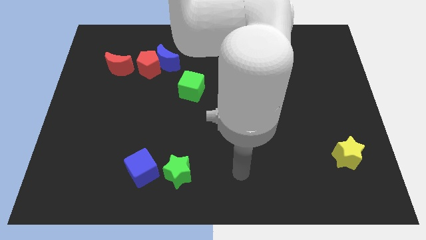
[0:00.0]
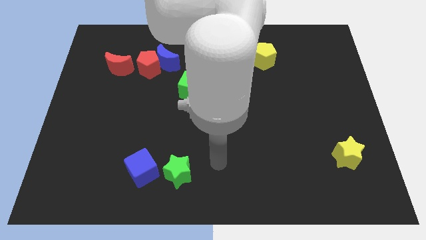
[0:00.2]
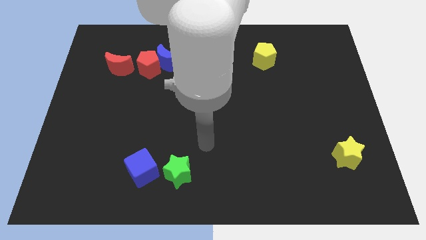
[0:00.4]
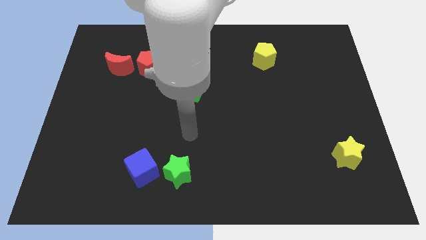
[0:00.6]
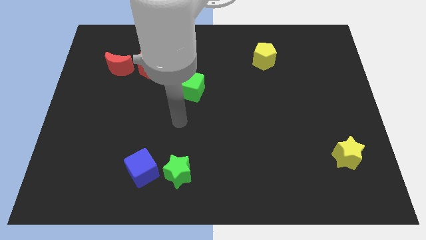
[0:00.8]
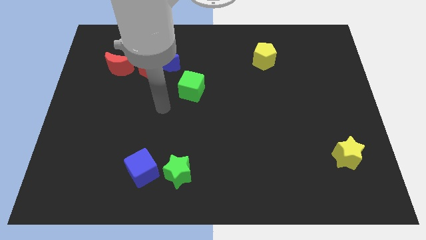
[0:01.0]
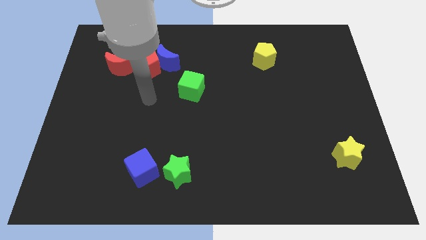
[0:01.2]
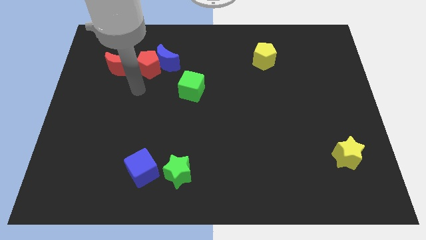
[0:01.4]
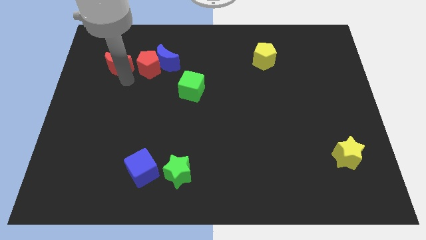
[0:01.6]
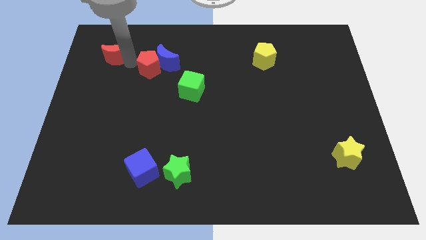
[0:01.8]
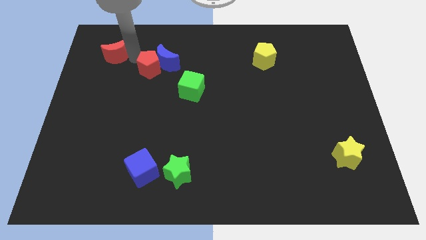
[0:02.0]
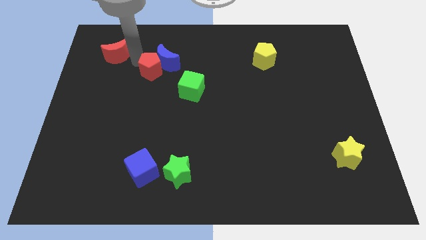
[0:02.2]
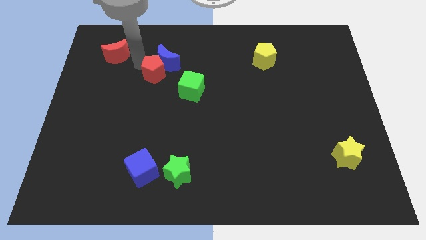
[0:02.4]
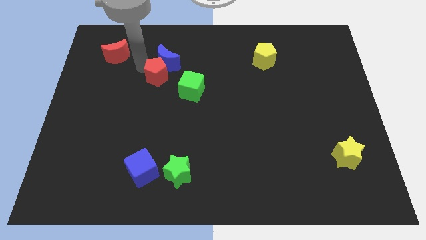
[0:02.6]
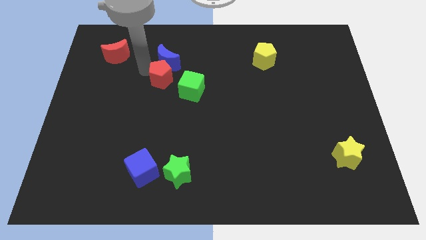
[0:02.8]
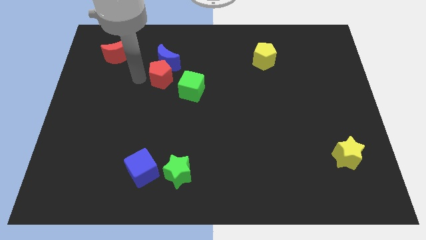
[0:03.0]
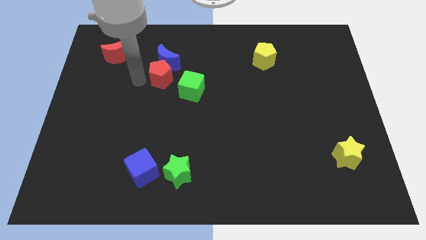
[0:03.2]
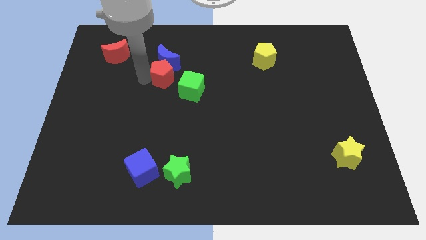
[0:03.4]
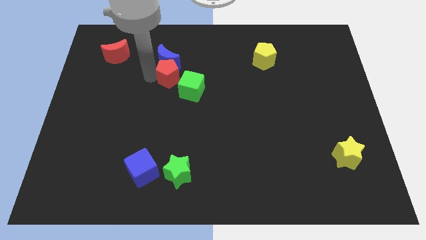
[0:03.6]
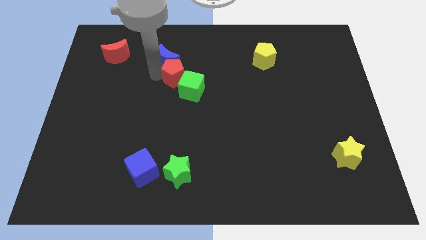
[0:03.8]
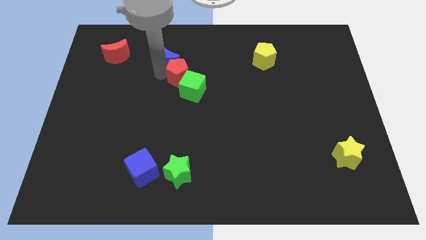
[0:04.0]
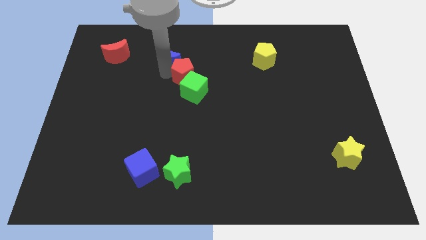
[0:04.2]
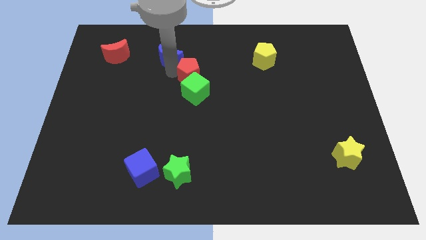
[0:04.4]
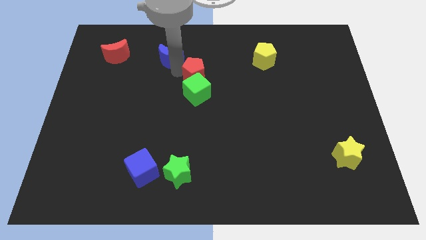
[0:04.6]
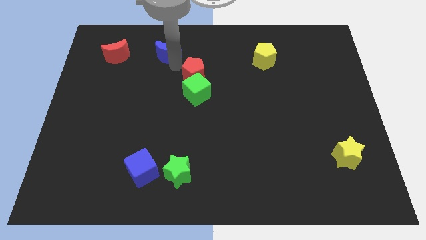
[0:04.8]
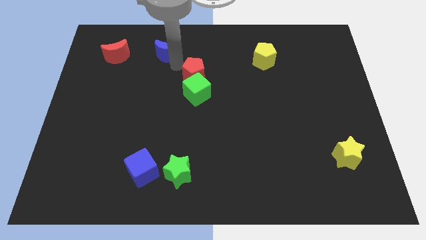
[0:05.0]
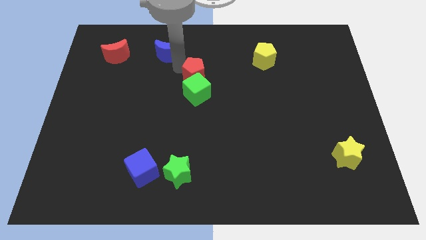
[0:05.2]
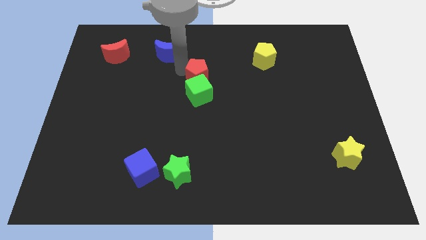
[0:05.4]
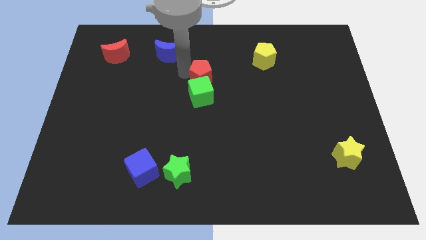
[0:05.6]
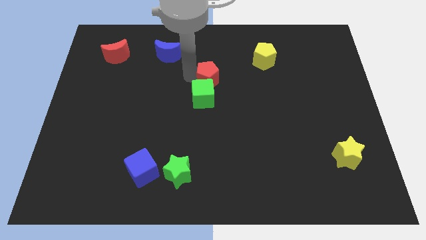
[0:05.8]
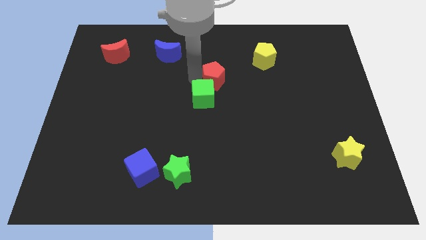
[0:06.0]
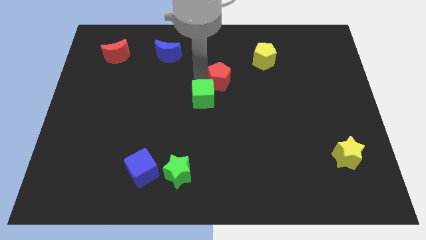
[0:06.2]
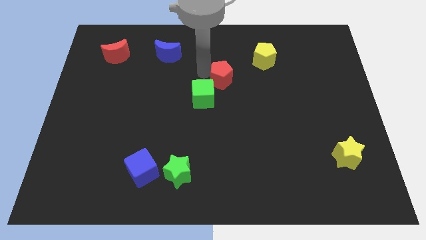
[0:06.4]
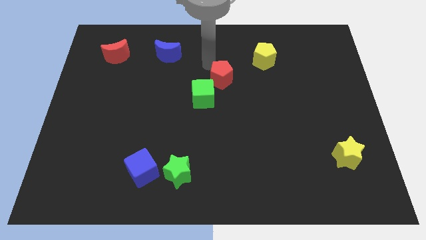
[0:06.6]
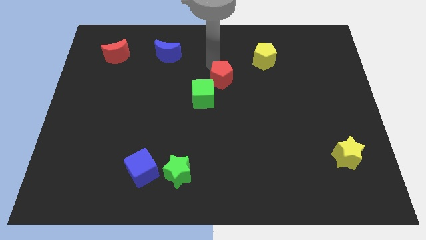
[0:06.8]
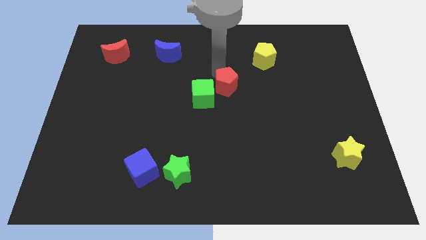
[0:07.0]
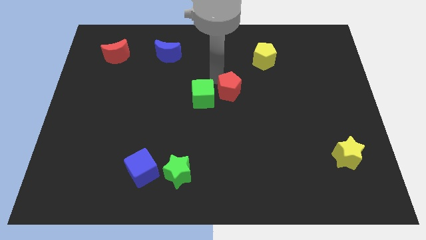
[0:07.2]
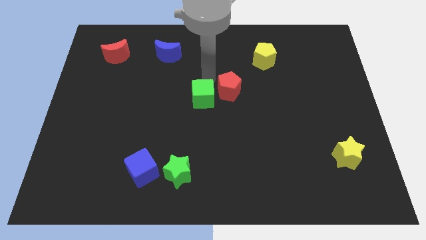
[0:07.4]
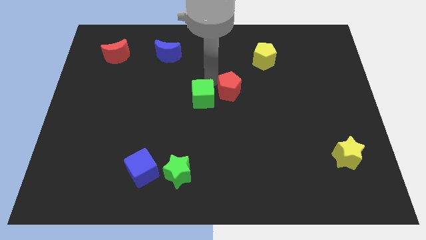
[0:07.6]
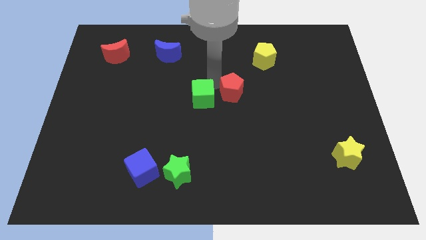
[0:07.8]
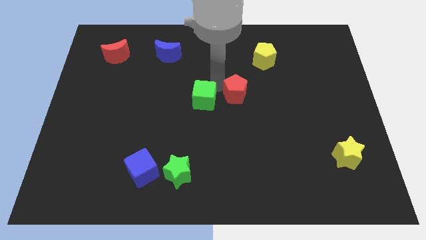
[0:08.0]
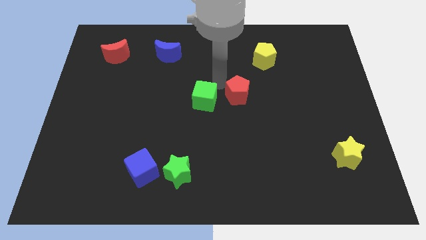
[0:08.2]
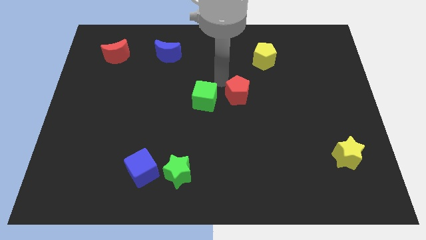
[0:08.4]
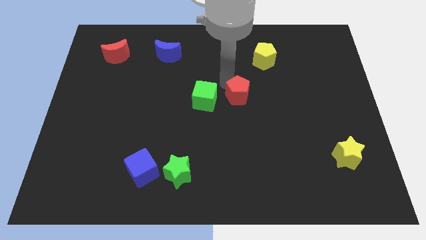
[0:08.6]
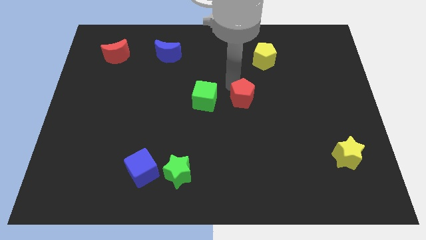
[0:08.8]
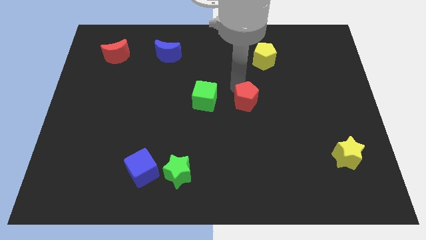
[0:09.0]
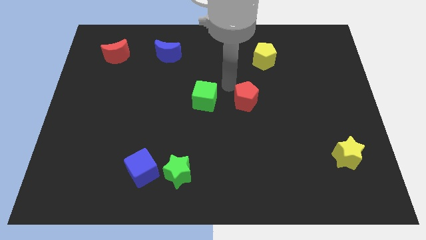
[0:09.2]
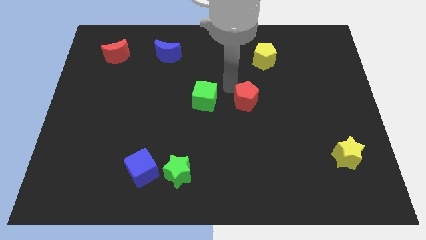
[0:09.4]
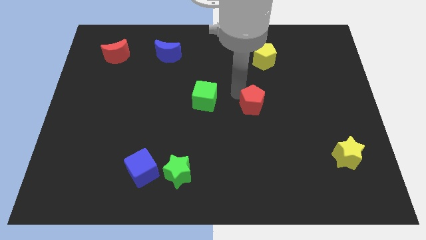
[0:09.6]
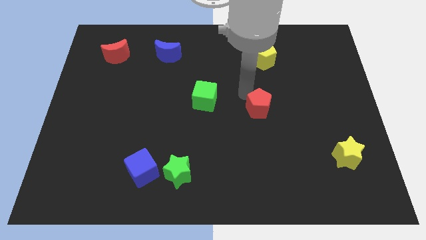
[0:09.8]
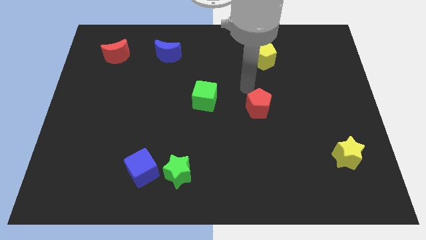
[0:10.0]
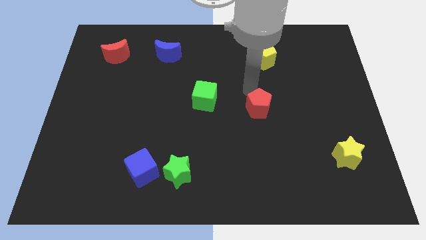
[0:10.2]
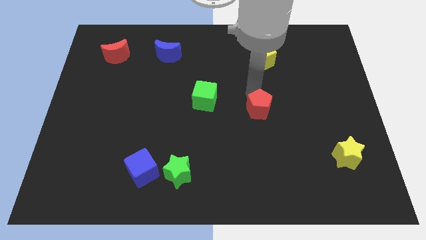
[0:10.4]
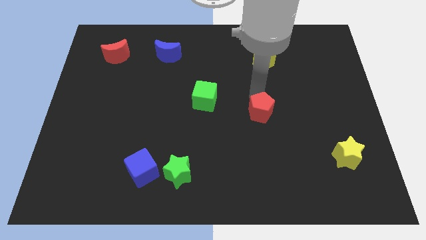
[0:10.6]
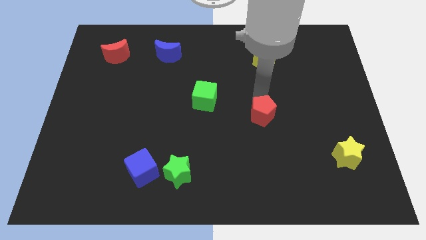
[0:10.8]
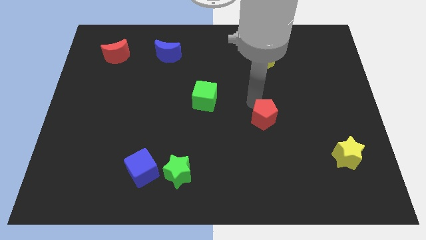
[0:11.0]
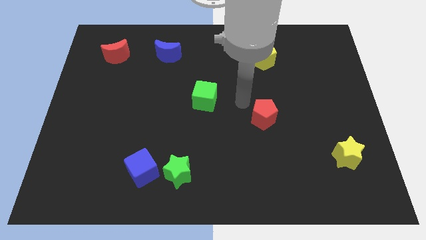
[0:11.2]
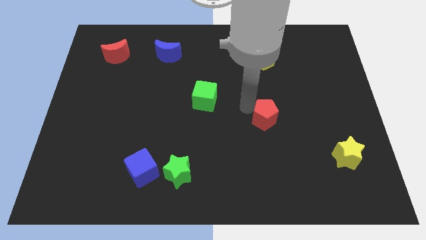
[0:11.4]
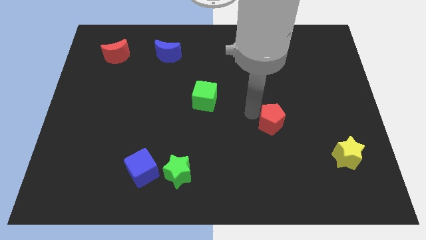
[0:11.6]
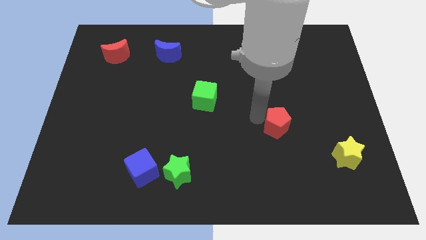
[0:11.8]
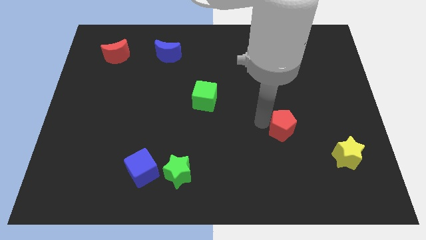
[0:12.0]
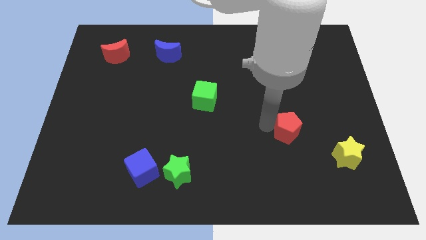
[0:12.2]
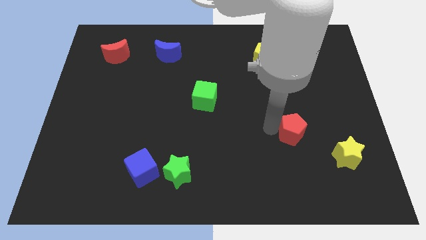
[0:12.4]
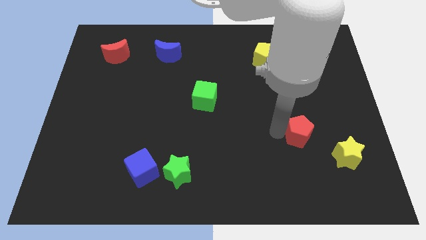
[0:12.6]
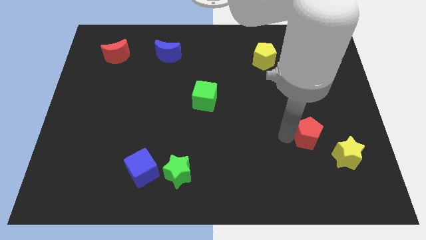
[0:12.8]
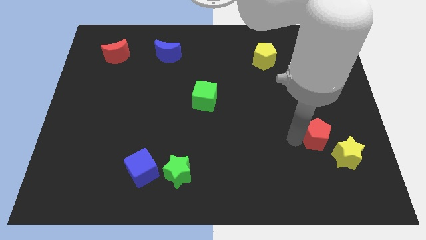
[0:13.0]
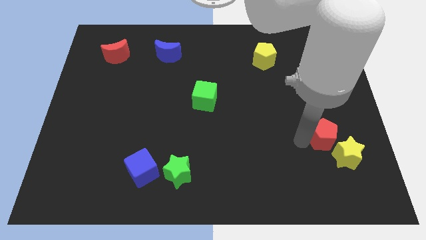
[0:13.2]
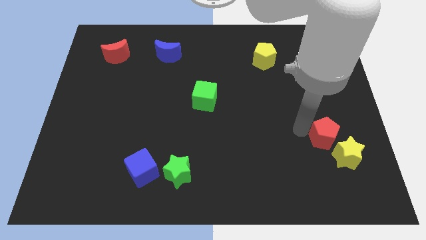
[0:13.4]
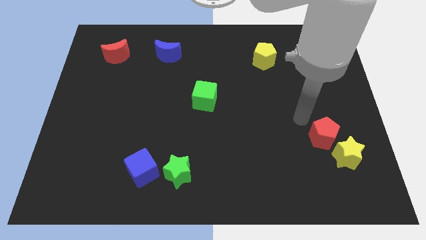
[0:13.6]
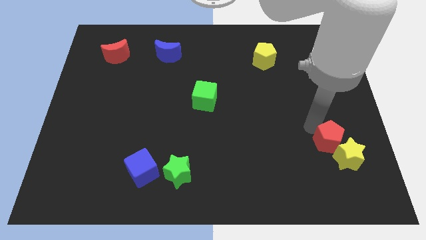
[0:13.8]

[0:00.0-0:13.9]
slide the red pentagon close to the yellow star
